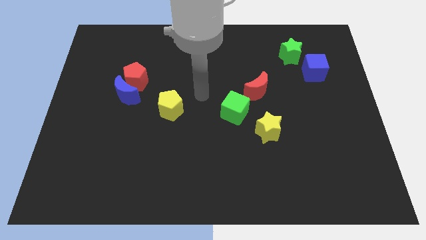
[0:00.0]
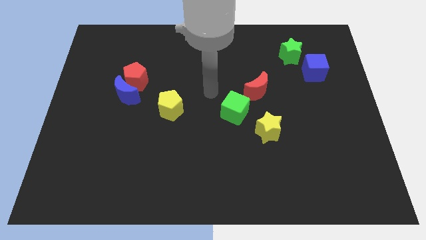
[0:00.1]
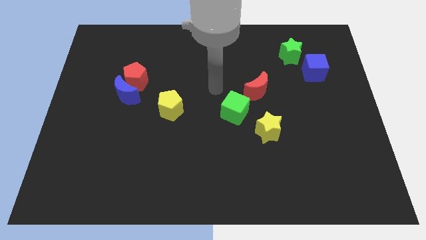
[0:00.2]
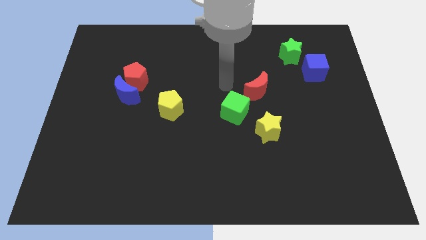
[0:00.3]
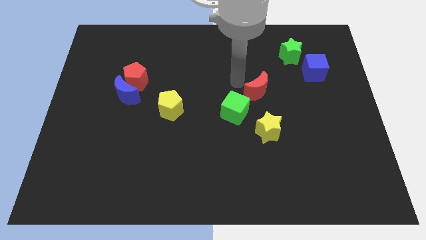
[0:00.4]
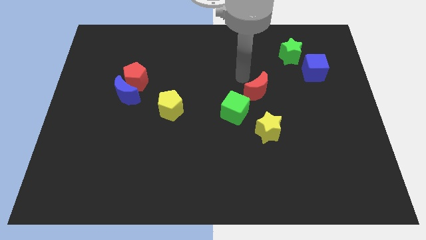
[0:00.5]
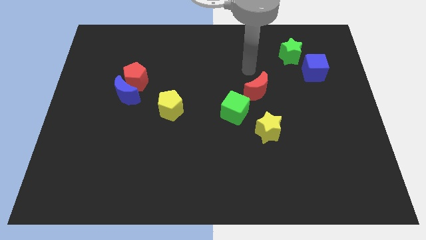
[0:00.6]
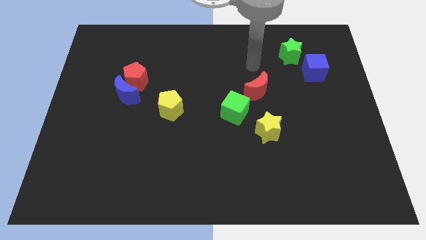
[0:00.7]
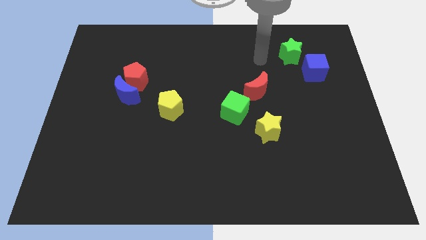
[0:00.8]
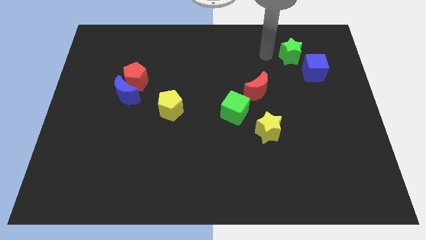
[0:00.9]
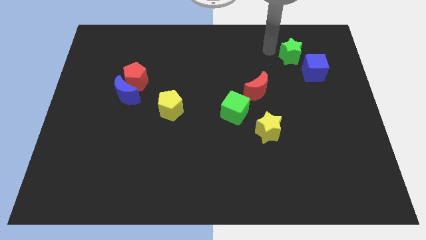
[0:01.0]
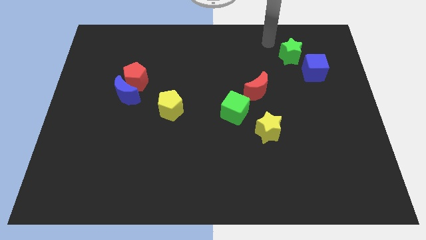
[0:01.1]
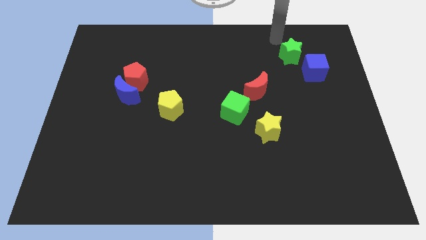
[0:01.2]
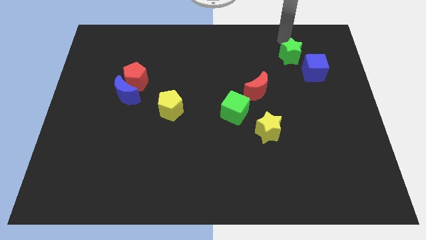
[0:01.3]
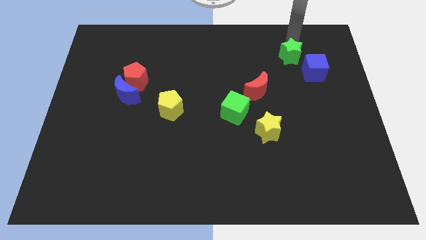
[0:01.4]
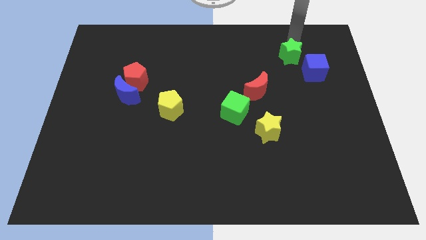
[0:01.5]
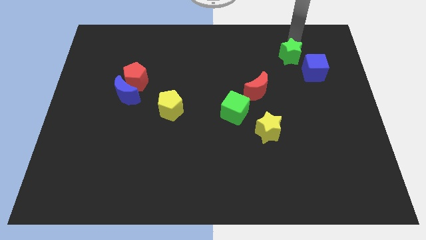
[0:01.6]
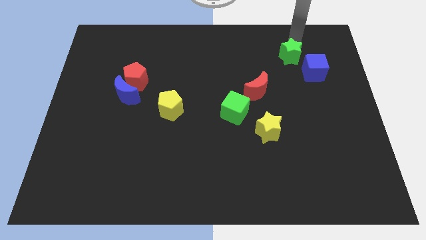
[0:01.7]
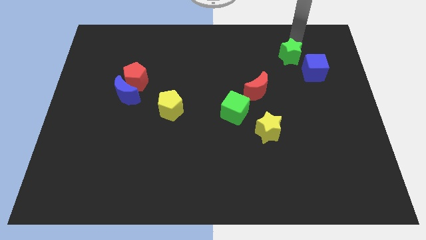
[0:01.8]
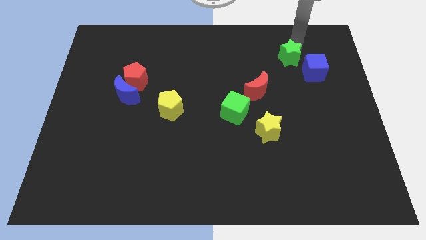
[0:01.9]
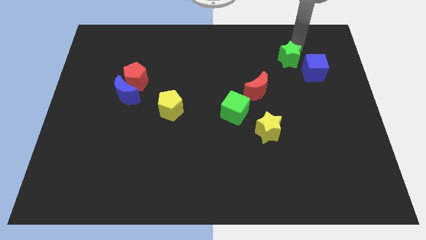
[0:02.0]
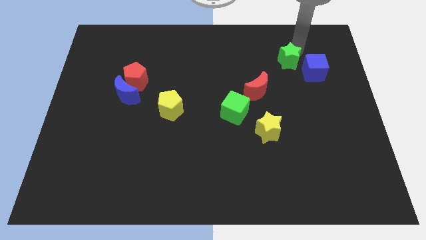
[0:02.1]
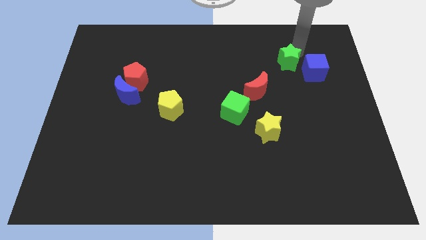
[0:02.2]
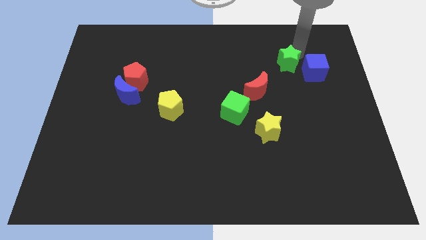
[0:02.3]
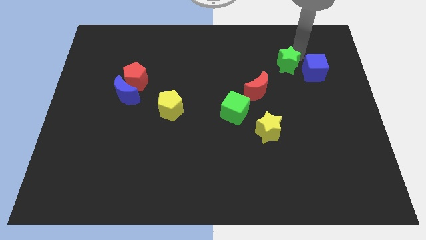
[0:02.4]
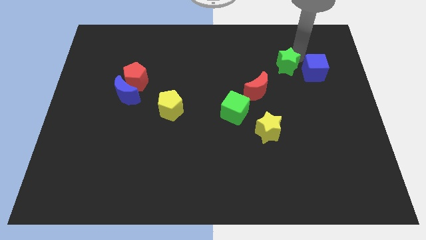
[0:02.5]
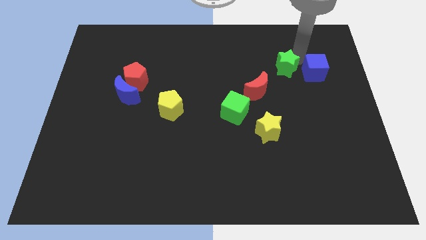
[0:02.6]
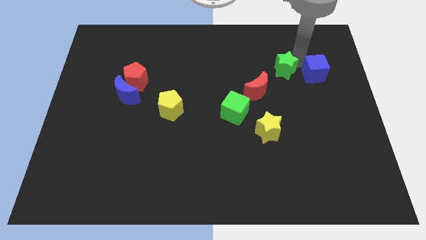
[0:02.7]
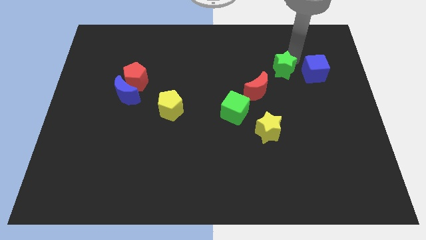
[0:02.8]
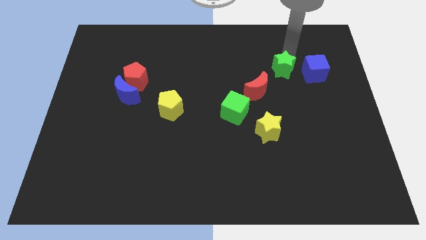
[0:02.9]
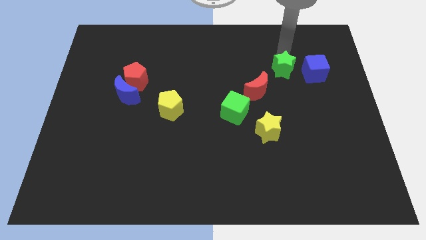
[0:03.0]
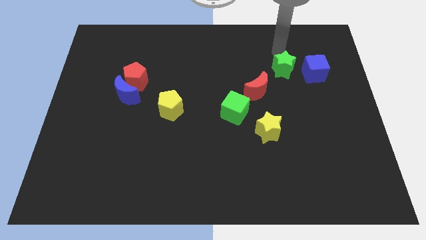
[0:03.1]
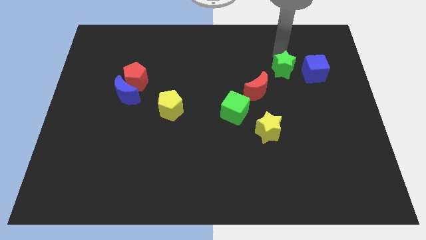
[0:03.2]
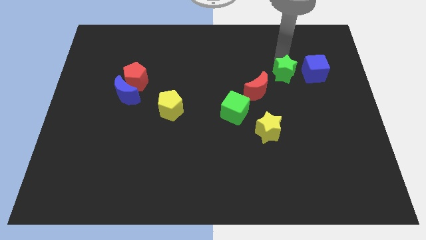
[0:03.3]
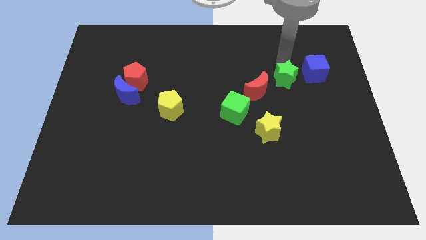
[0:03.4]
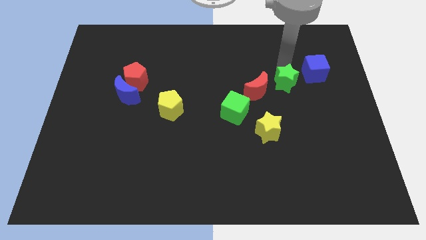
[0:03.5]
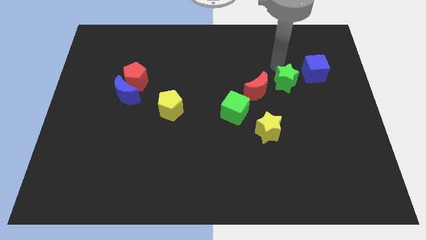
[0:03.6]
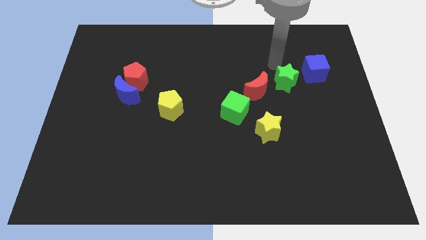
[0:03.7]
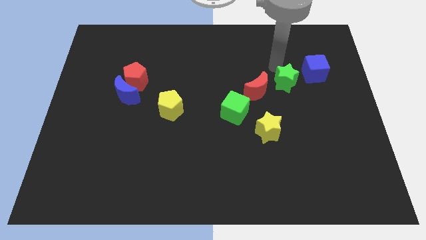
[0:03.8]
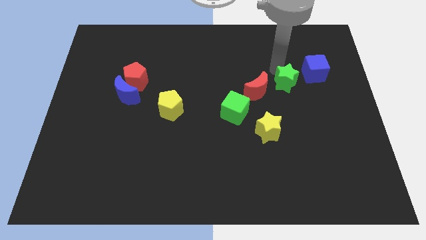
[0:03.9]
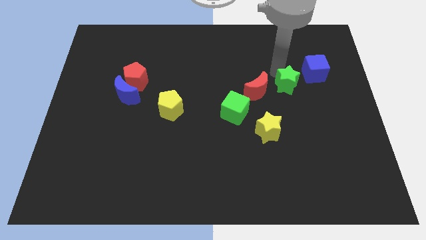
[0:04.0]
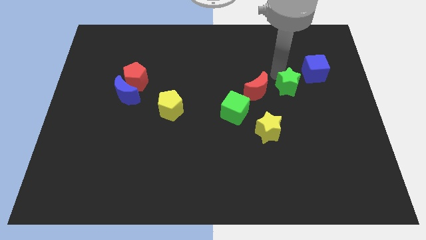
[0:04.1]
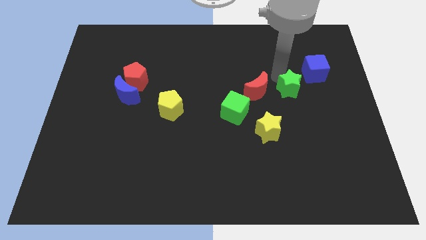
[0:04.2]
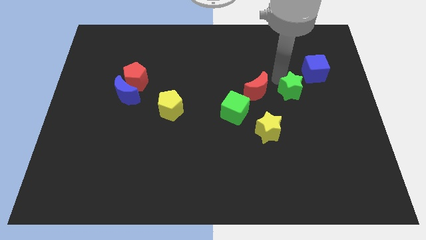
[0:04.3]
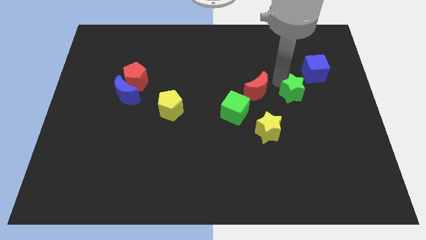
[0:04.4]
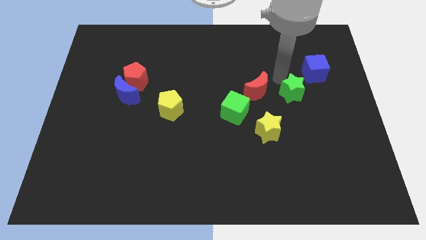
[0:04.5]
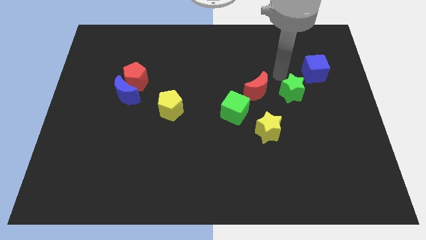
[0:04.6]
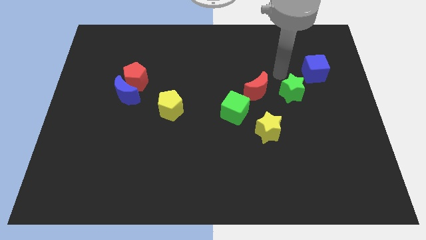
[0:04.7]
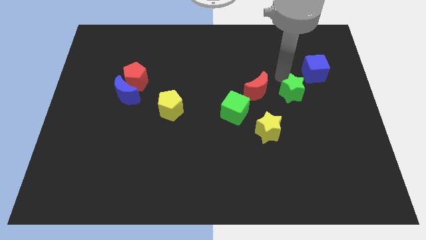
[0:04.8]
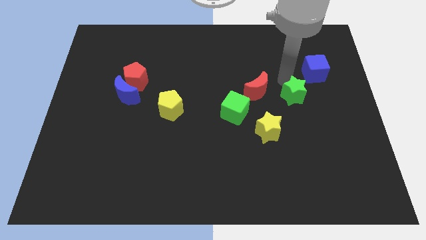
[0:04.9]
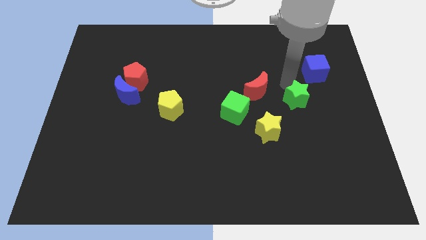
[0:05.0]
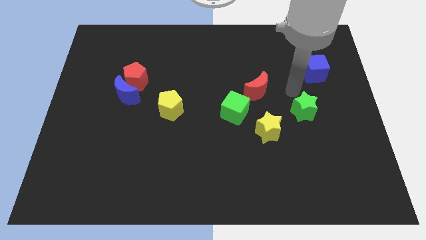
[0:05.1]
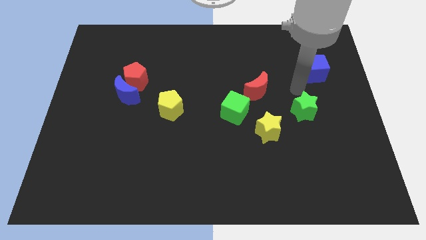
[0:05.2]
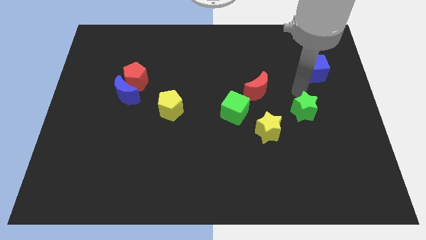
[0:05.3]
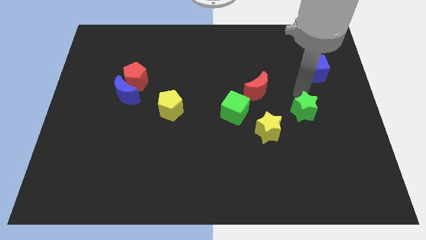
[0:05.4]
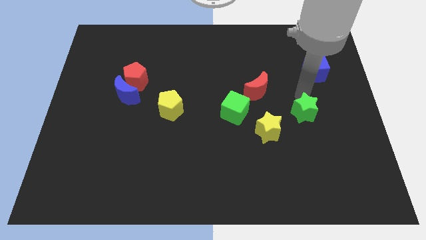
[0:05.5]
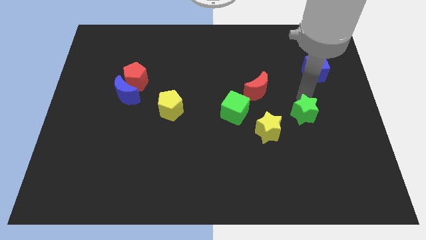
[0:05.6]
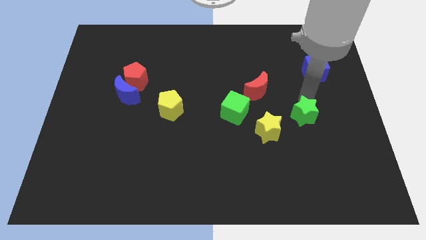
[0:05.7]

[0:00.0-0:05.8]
slide the green star down

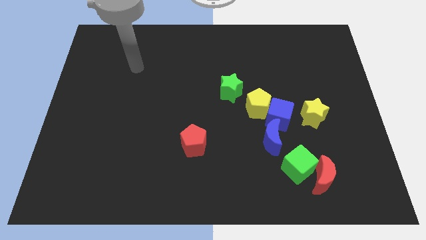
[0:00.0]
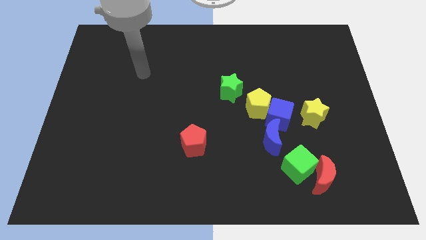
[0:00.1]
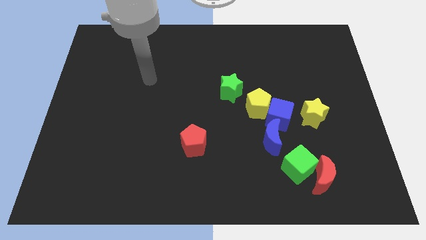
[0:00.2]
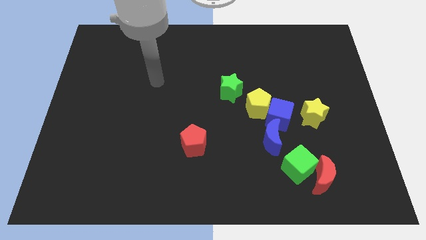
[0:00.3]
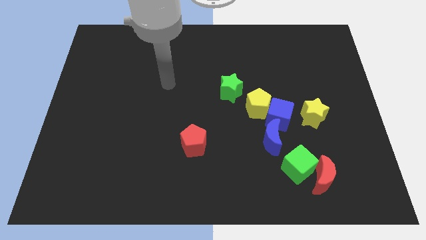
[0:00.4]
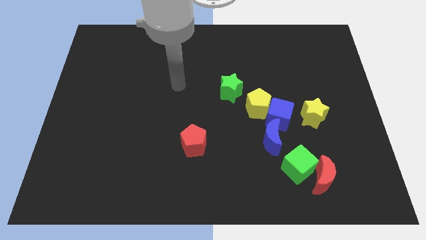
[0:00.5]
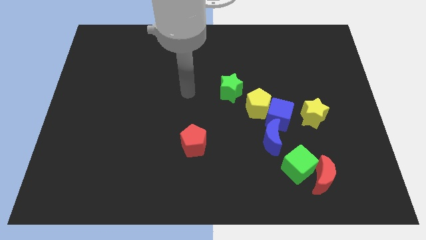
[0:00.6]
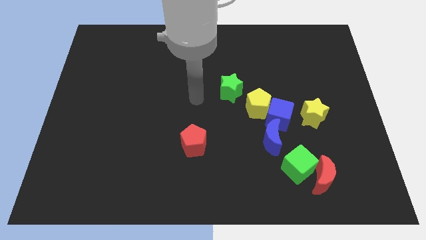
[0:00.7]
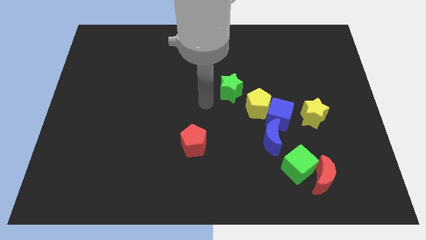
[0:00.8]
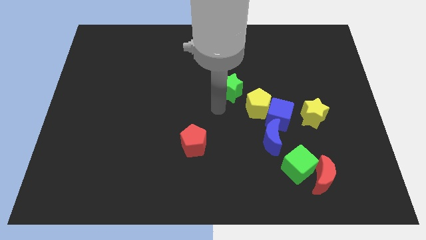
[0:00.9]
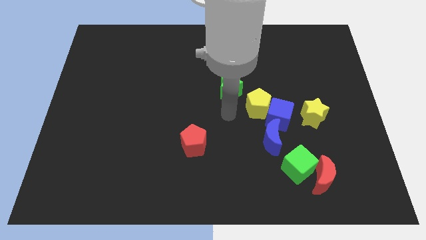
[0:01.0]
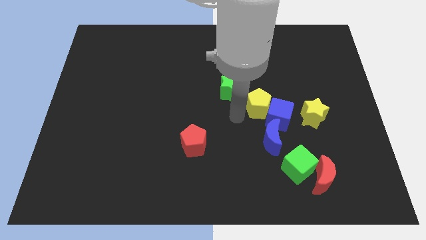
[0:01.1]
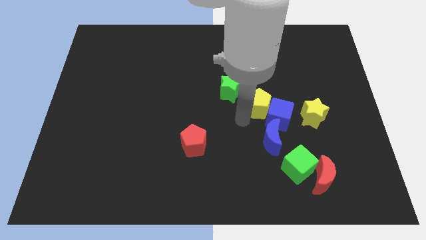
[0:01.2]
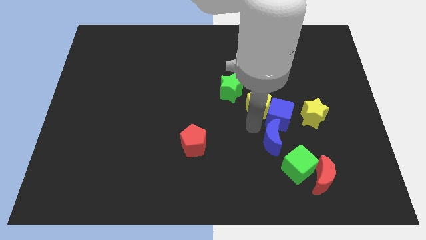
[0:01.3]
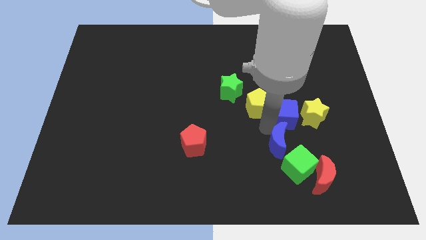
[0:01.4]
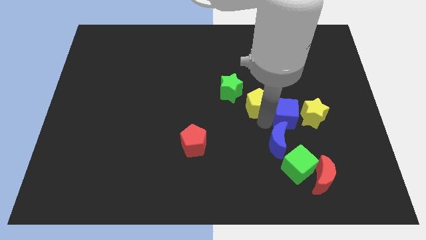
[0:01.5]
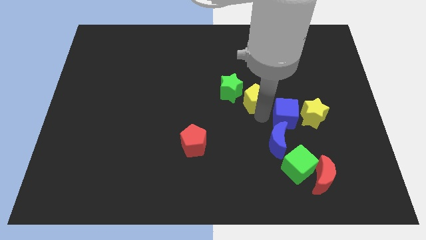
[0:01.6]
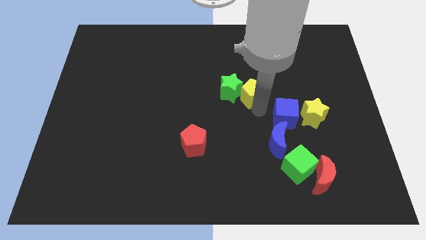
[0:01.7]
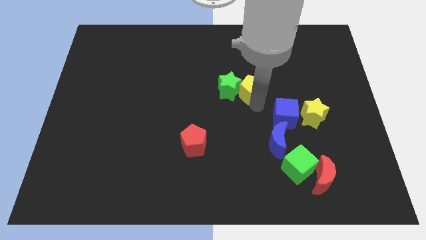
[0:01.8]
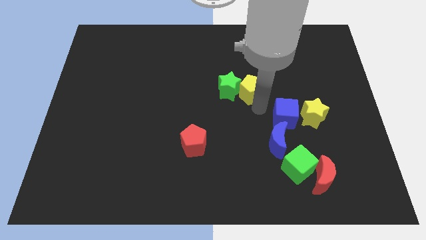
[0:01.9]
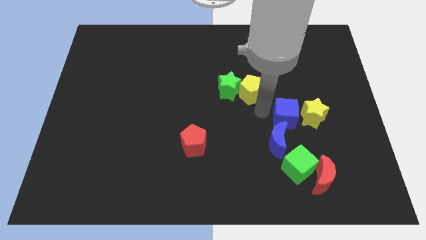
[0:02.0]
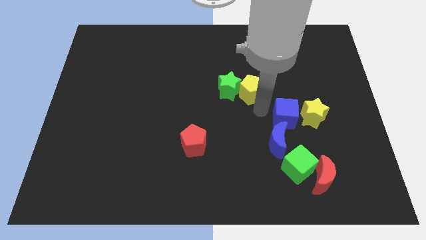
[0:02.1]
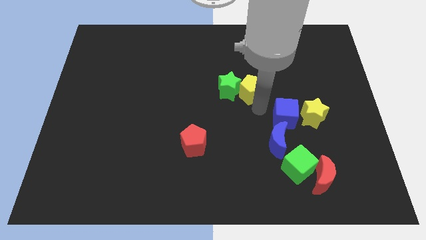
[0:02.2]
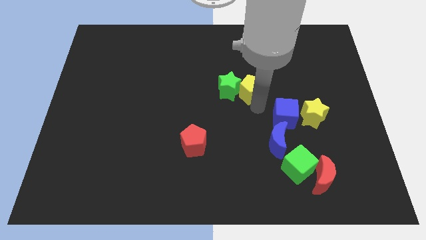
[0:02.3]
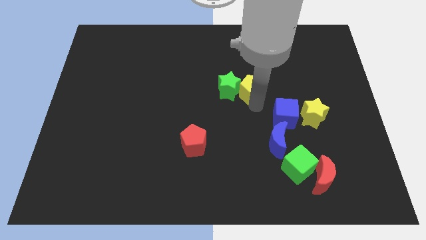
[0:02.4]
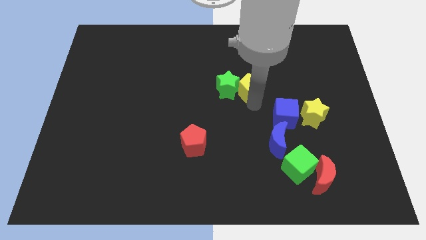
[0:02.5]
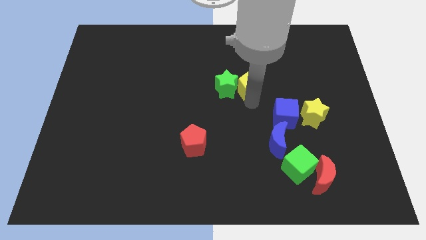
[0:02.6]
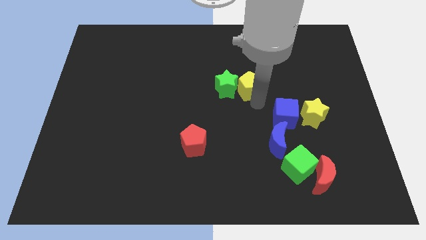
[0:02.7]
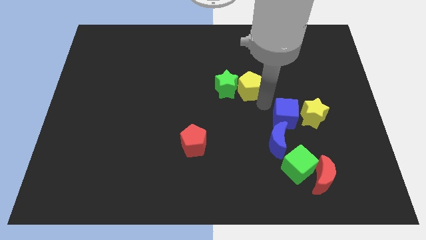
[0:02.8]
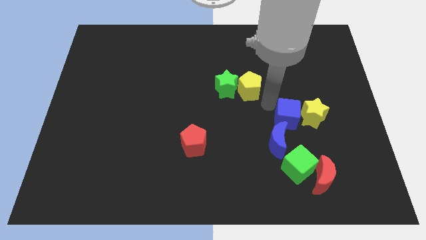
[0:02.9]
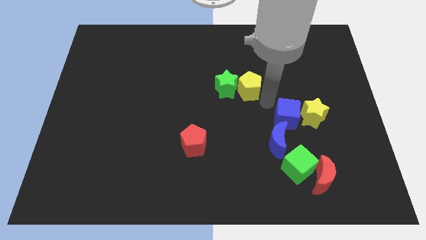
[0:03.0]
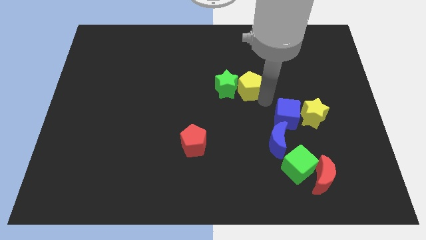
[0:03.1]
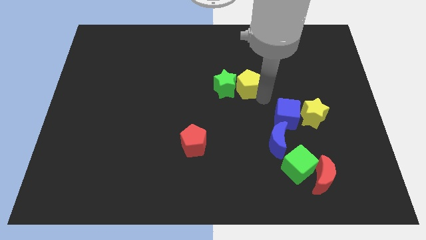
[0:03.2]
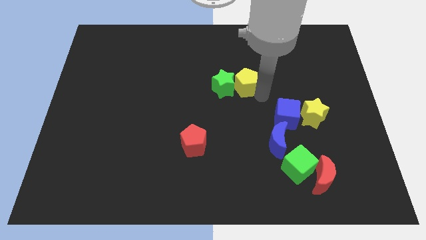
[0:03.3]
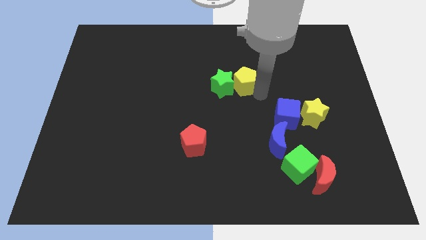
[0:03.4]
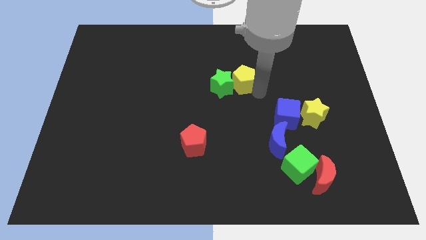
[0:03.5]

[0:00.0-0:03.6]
slightly slide the yellow pentagon diagonally up and to the left
